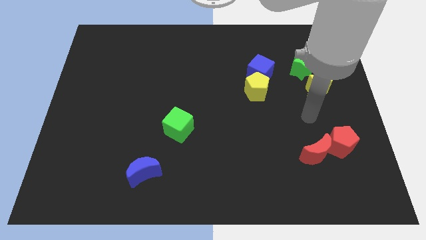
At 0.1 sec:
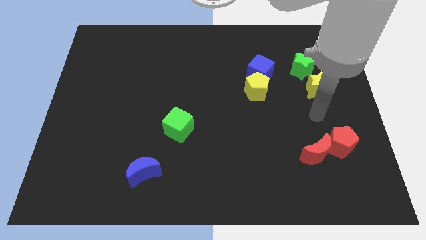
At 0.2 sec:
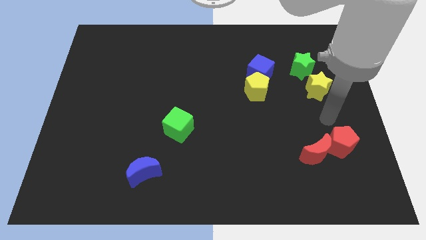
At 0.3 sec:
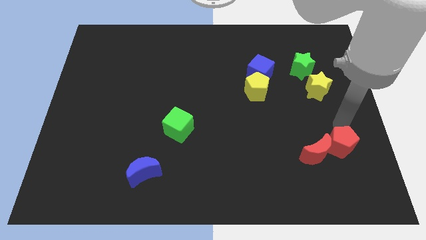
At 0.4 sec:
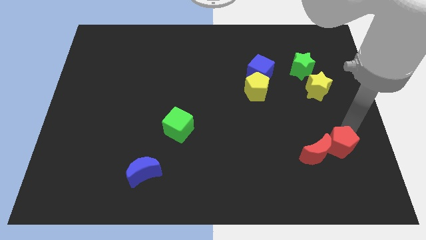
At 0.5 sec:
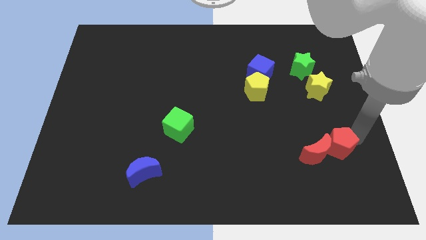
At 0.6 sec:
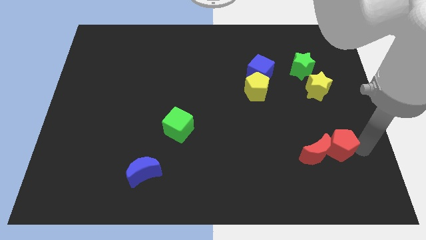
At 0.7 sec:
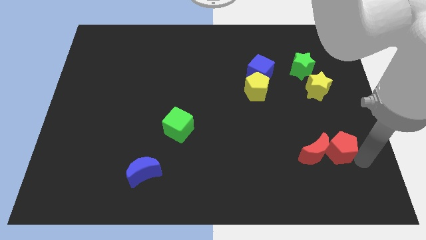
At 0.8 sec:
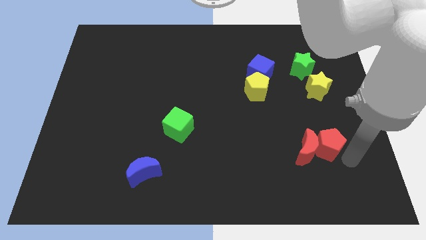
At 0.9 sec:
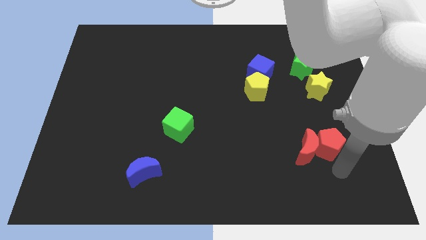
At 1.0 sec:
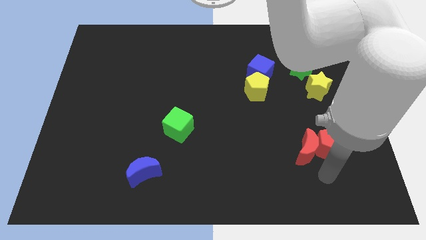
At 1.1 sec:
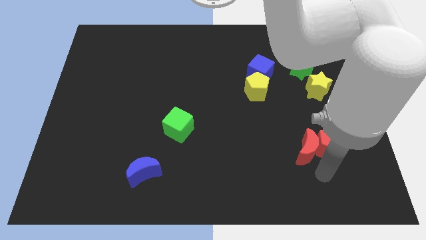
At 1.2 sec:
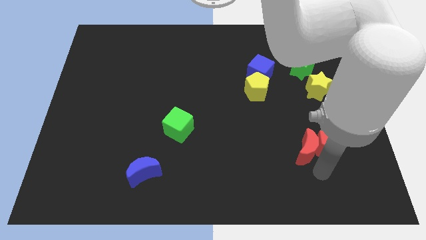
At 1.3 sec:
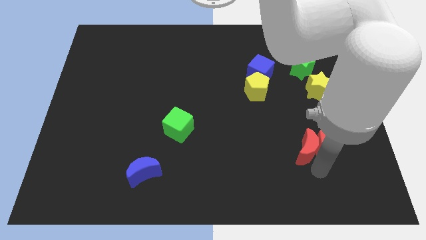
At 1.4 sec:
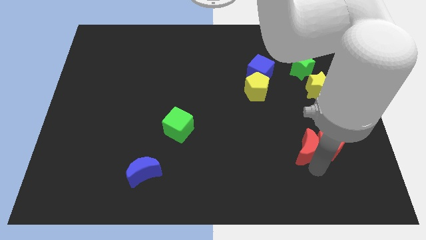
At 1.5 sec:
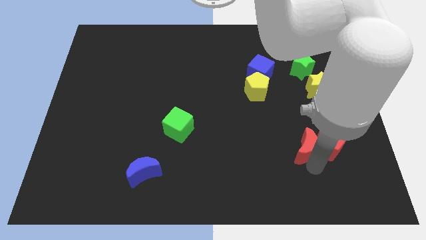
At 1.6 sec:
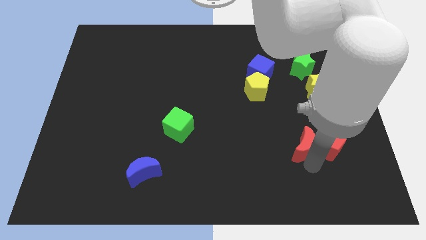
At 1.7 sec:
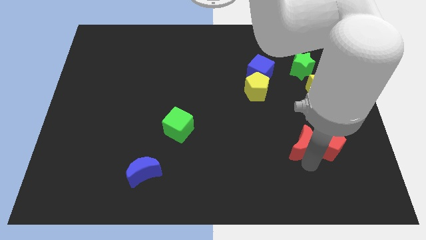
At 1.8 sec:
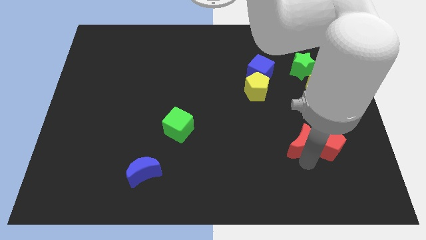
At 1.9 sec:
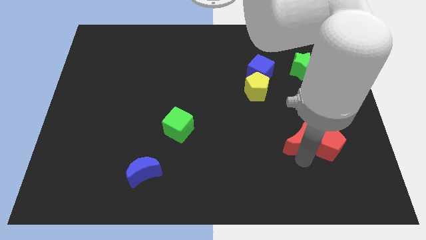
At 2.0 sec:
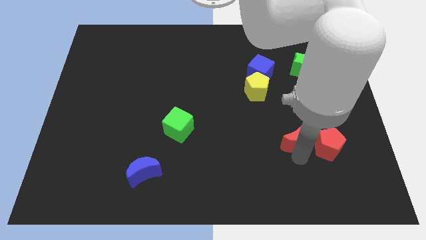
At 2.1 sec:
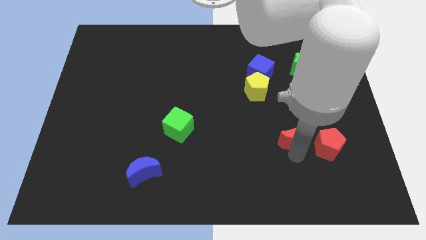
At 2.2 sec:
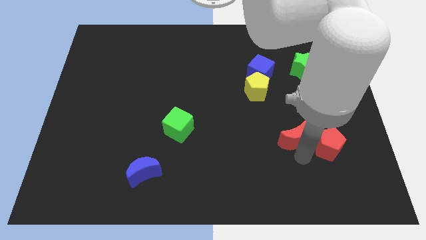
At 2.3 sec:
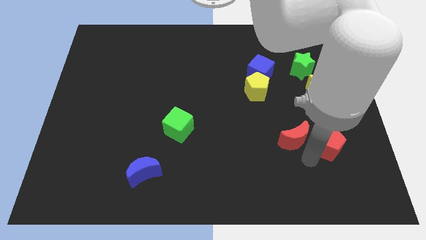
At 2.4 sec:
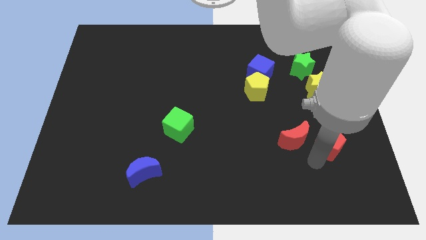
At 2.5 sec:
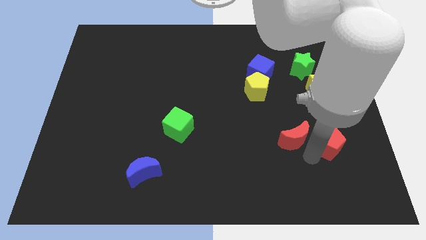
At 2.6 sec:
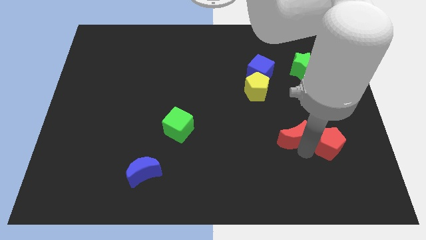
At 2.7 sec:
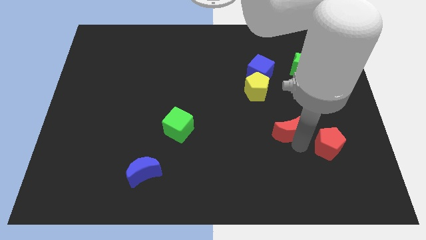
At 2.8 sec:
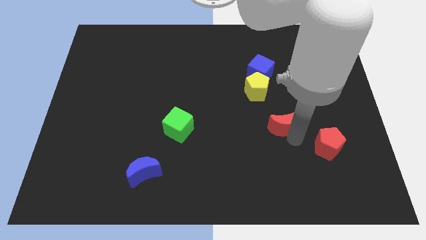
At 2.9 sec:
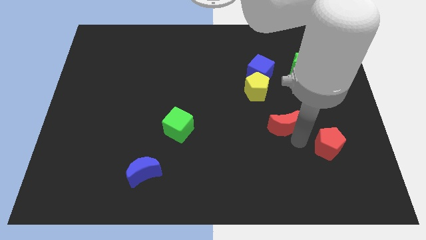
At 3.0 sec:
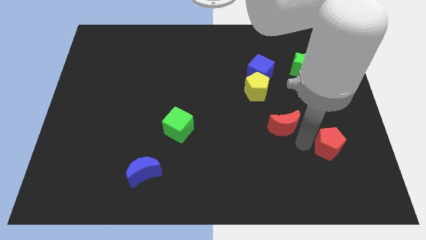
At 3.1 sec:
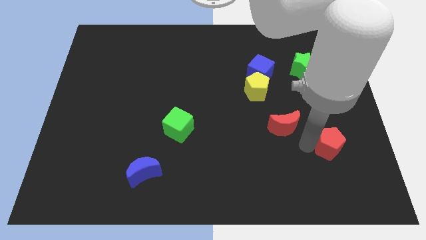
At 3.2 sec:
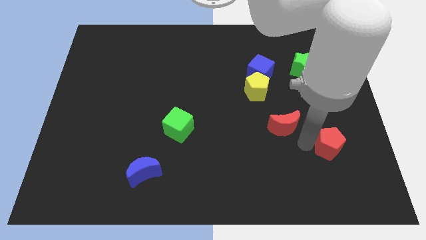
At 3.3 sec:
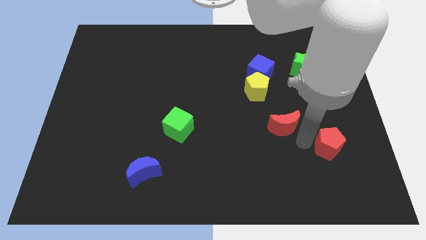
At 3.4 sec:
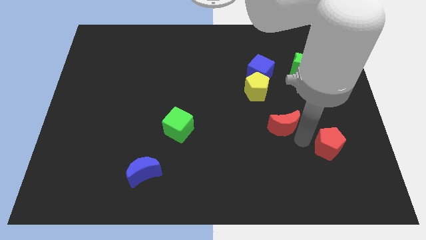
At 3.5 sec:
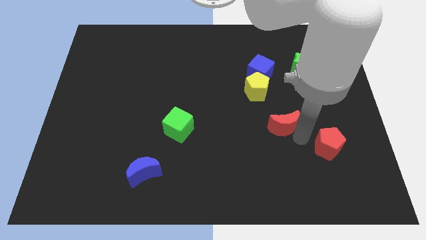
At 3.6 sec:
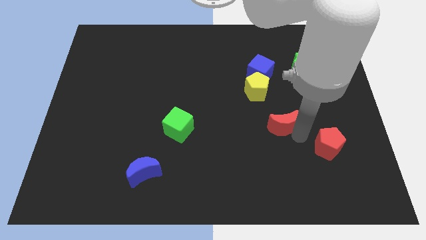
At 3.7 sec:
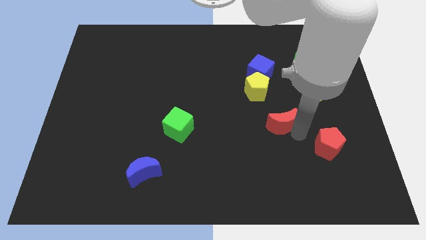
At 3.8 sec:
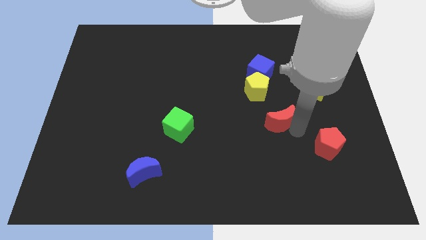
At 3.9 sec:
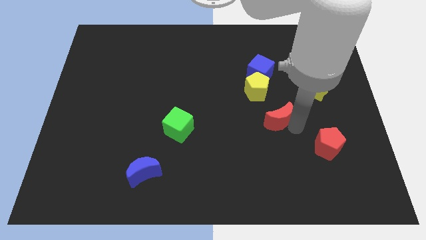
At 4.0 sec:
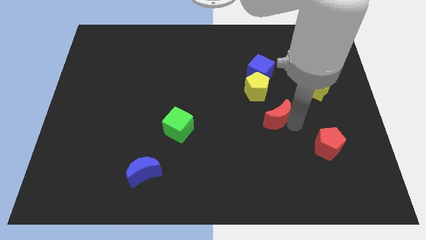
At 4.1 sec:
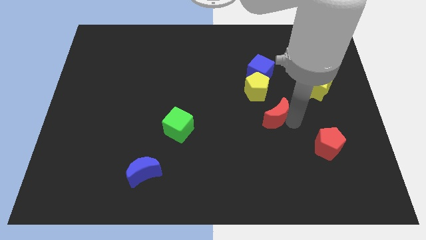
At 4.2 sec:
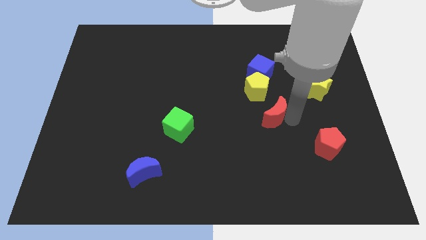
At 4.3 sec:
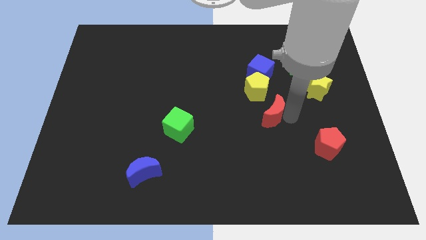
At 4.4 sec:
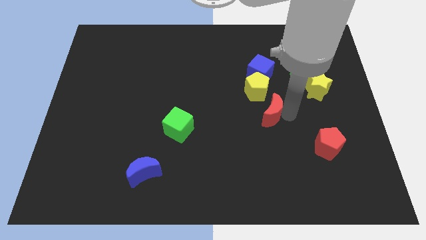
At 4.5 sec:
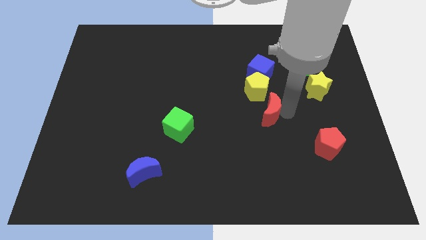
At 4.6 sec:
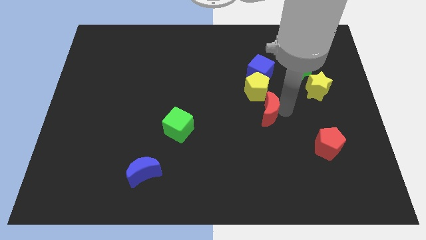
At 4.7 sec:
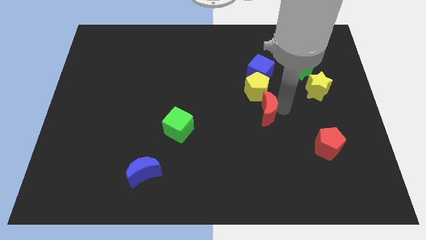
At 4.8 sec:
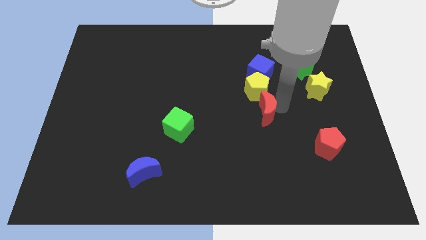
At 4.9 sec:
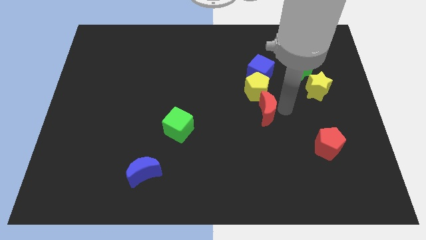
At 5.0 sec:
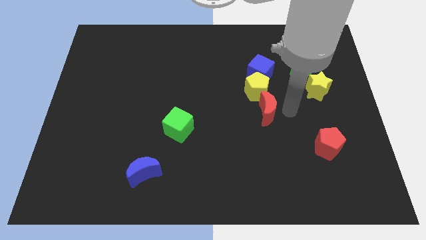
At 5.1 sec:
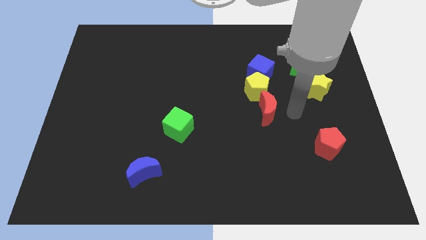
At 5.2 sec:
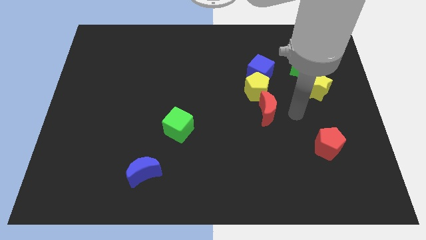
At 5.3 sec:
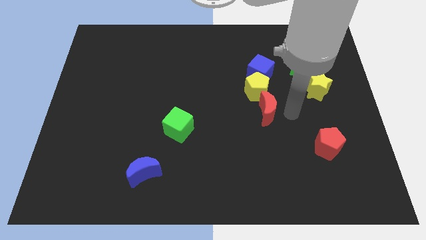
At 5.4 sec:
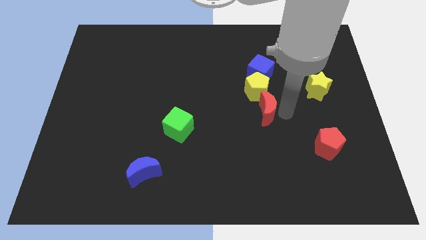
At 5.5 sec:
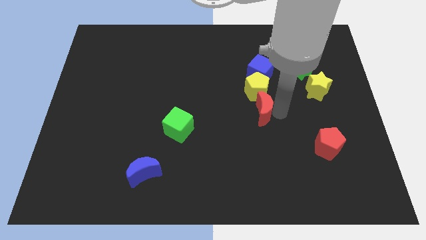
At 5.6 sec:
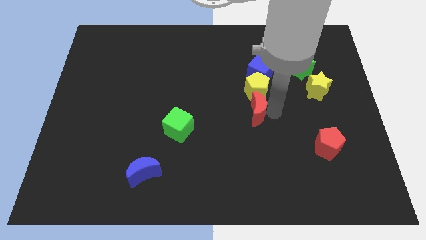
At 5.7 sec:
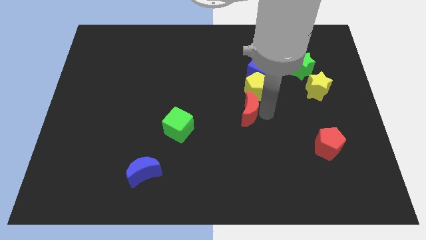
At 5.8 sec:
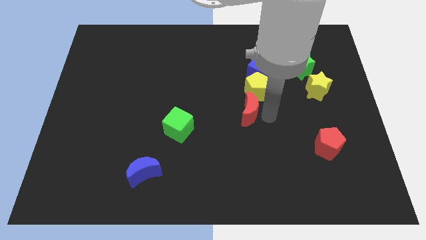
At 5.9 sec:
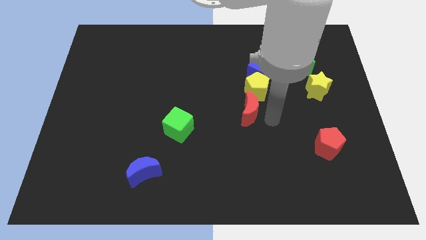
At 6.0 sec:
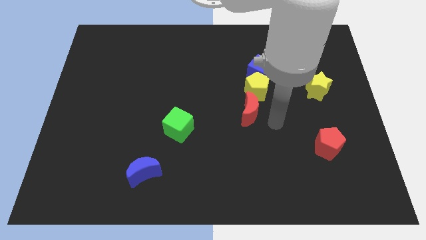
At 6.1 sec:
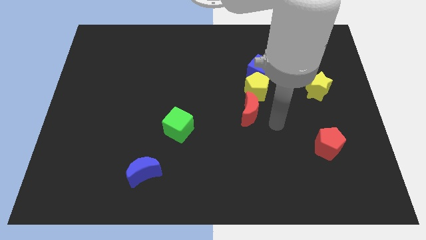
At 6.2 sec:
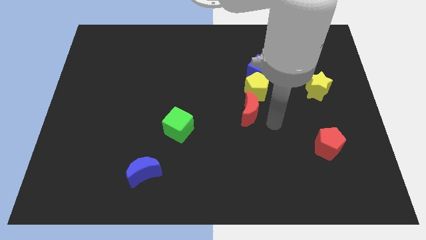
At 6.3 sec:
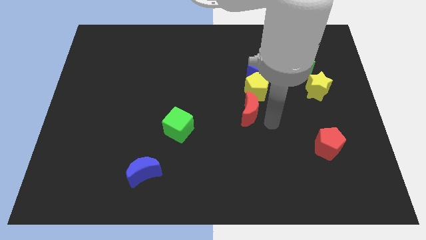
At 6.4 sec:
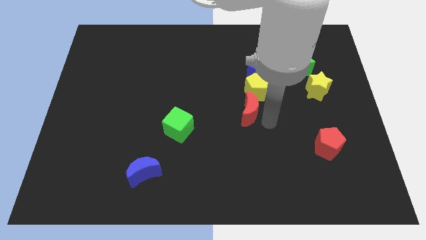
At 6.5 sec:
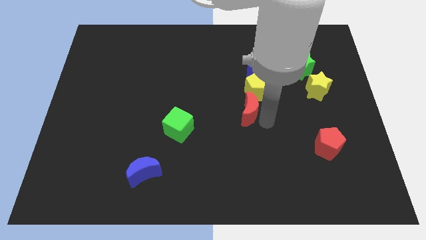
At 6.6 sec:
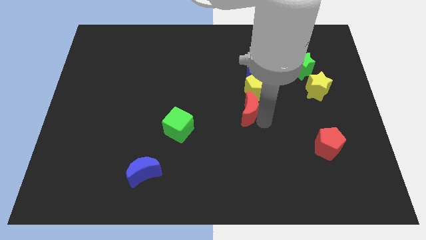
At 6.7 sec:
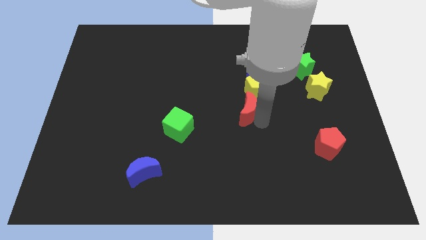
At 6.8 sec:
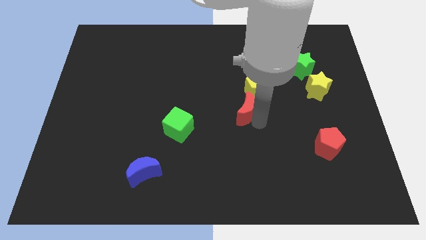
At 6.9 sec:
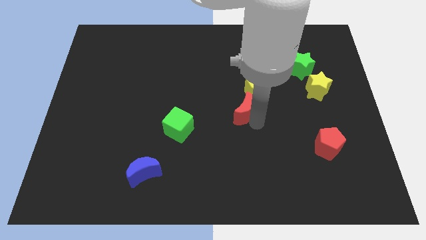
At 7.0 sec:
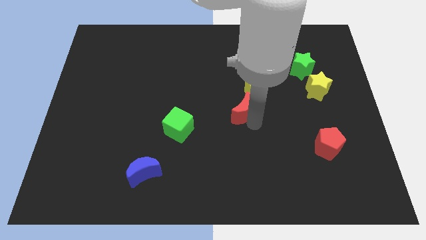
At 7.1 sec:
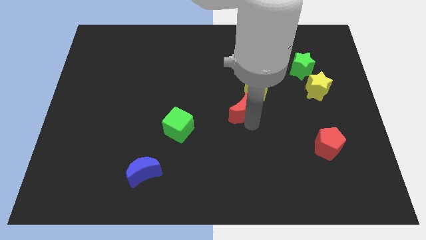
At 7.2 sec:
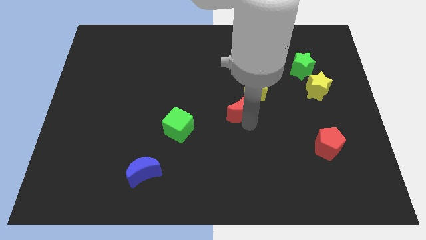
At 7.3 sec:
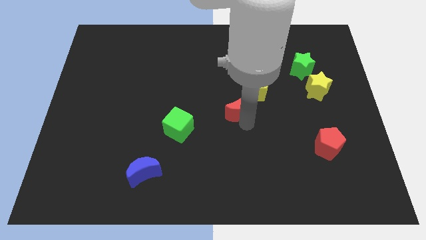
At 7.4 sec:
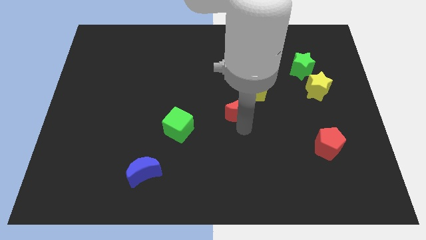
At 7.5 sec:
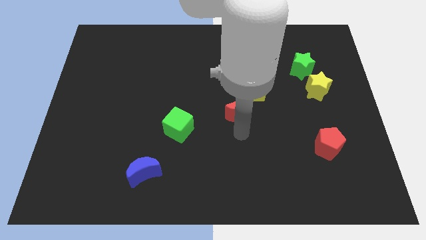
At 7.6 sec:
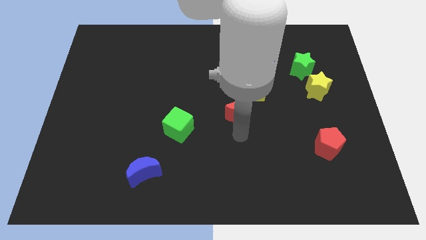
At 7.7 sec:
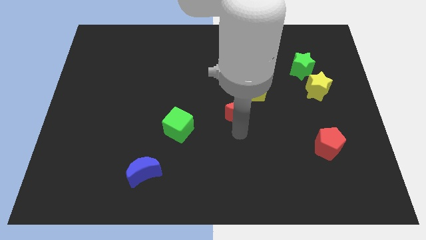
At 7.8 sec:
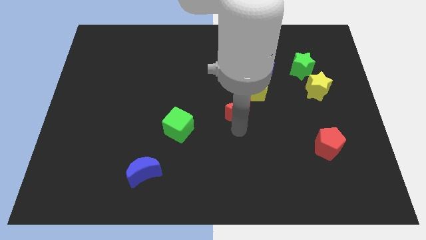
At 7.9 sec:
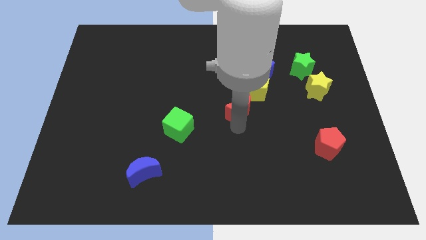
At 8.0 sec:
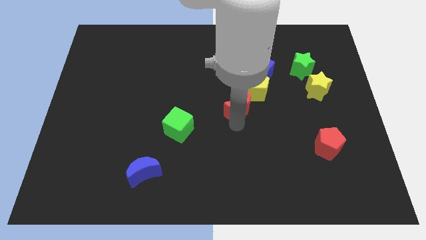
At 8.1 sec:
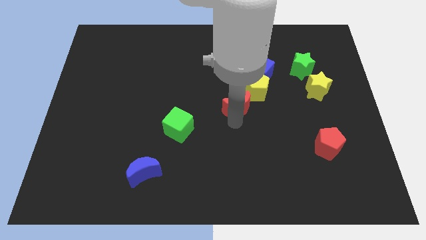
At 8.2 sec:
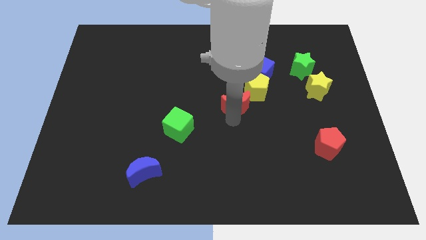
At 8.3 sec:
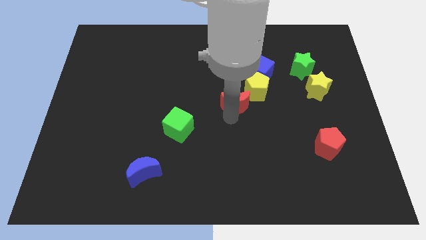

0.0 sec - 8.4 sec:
move the red moon diagonally down and to the left of the blue cube
